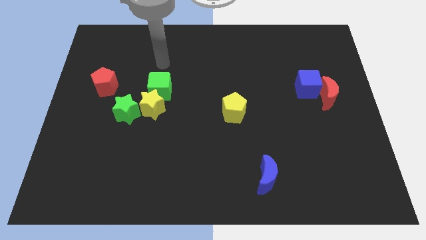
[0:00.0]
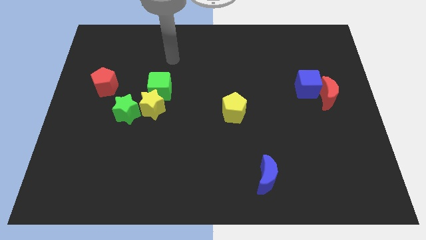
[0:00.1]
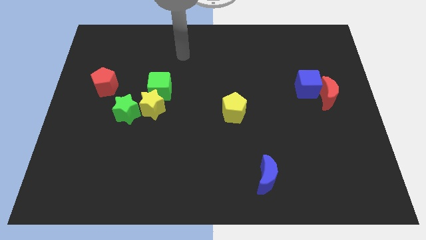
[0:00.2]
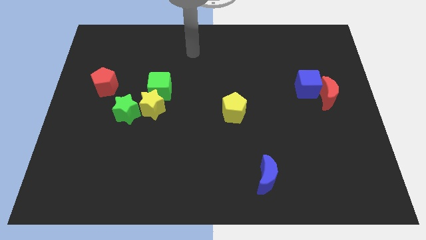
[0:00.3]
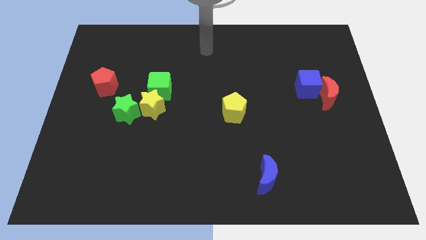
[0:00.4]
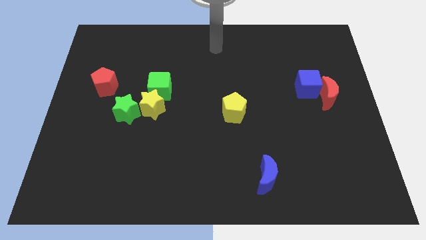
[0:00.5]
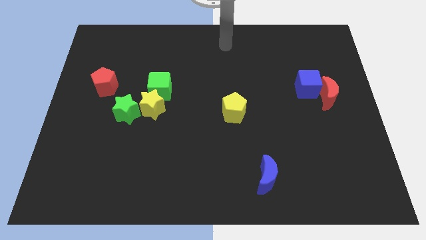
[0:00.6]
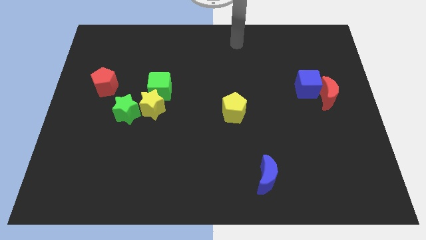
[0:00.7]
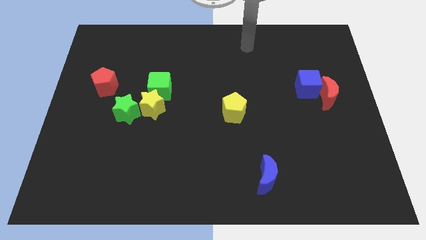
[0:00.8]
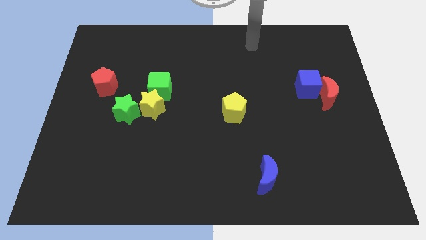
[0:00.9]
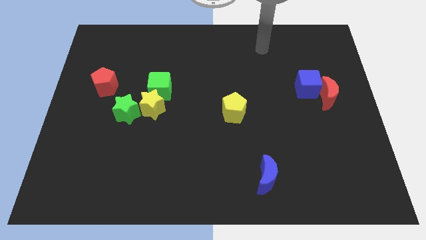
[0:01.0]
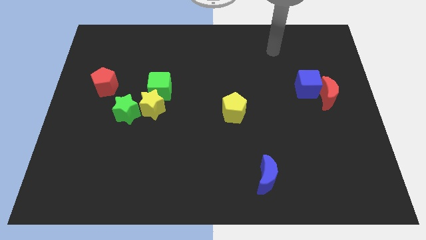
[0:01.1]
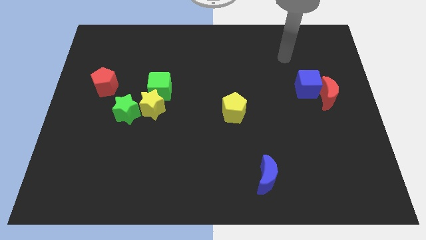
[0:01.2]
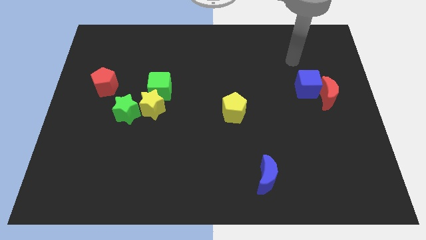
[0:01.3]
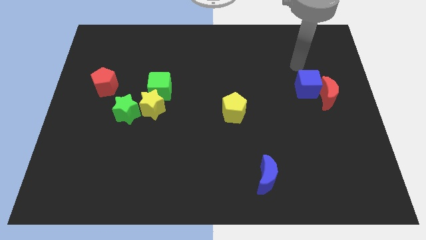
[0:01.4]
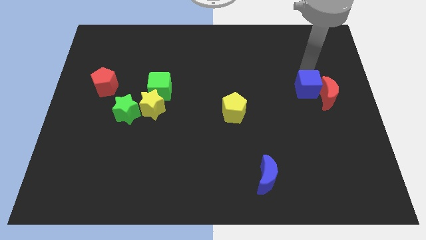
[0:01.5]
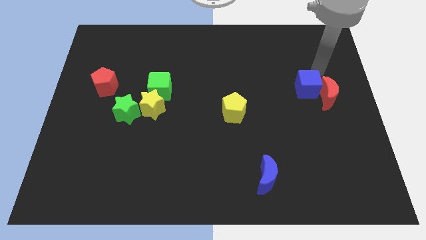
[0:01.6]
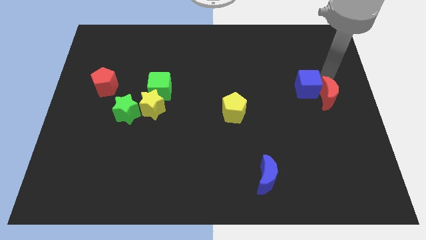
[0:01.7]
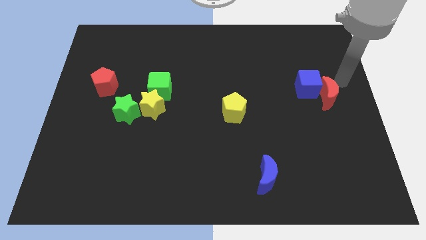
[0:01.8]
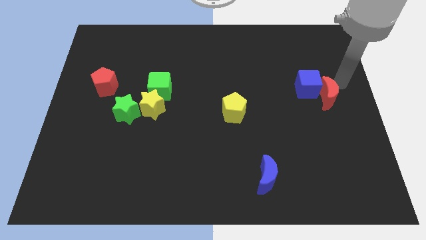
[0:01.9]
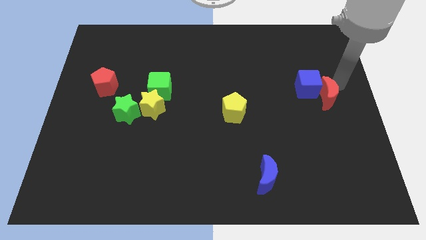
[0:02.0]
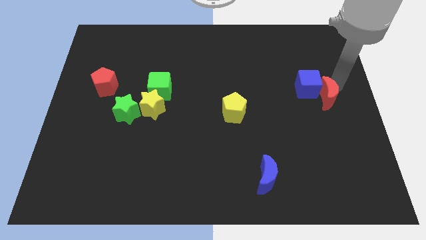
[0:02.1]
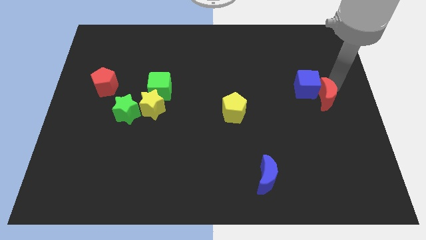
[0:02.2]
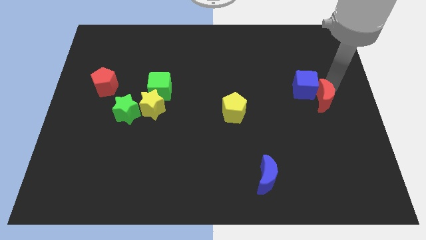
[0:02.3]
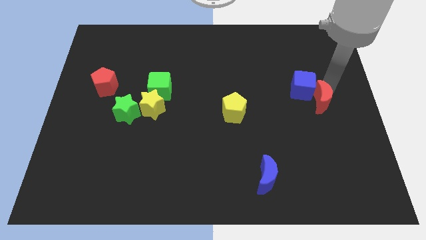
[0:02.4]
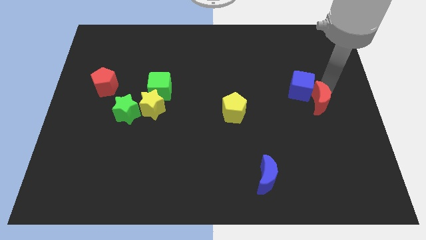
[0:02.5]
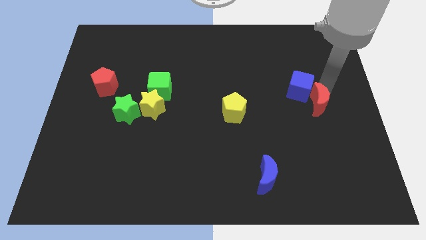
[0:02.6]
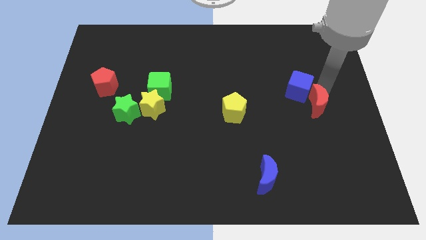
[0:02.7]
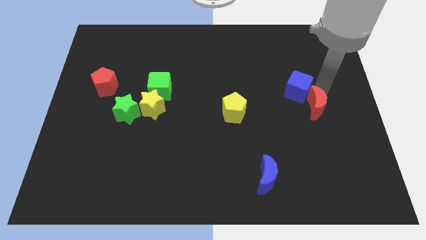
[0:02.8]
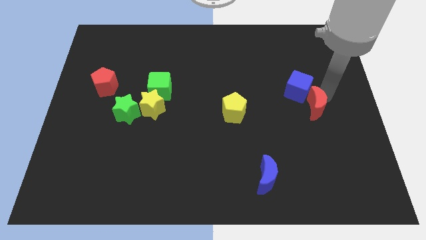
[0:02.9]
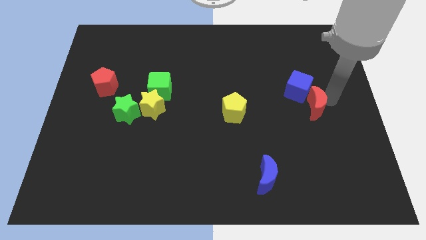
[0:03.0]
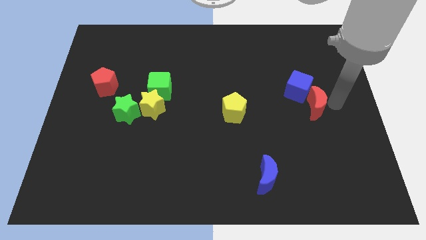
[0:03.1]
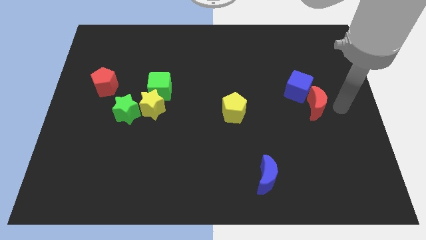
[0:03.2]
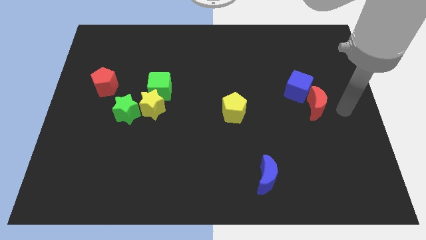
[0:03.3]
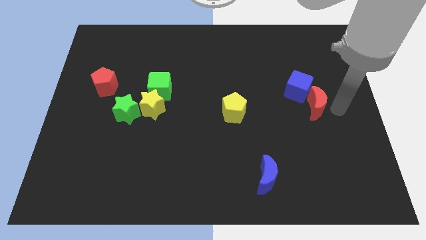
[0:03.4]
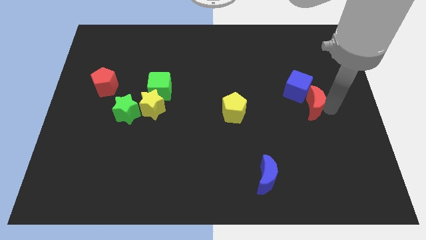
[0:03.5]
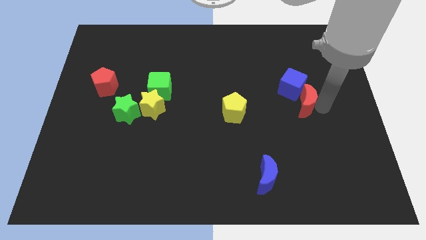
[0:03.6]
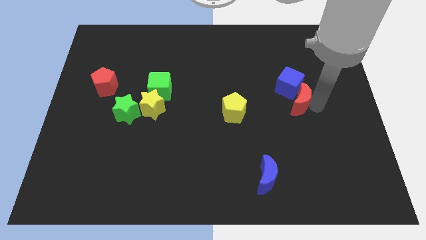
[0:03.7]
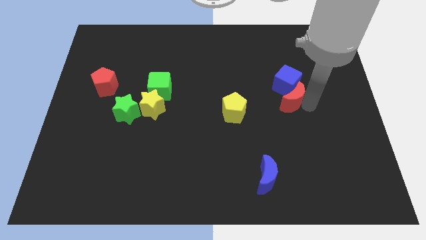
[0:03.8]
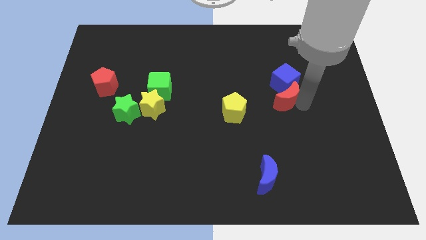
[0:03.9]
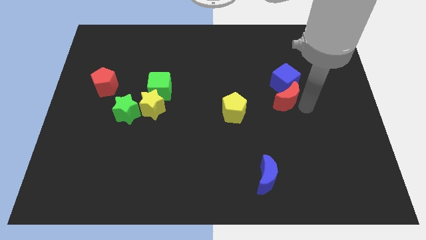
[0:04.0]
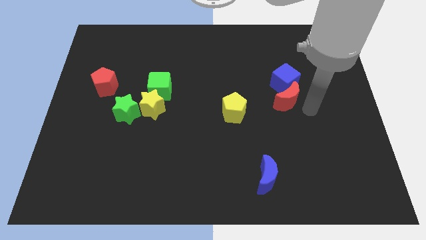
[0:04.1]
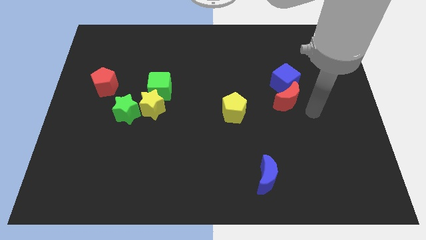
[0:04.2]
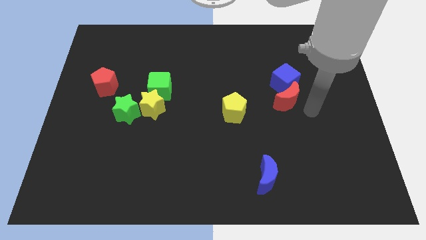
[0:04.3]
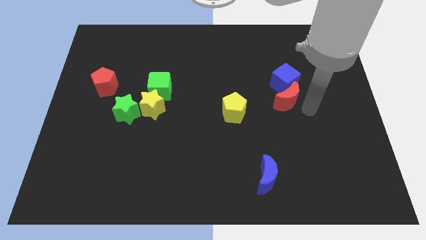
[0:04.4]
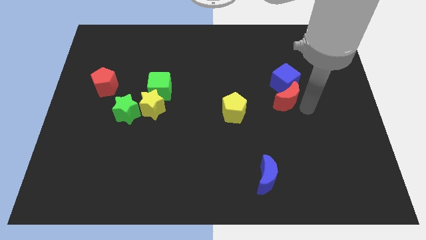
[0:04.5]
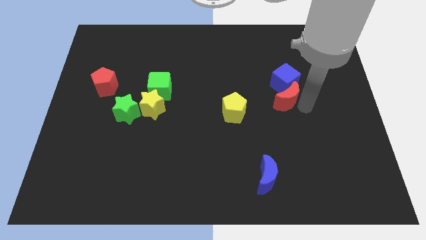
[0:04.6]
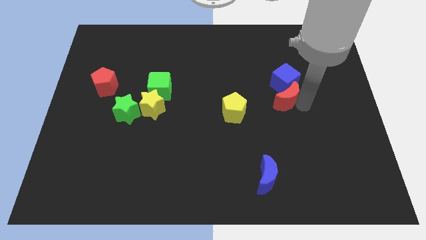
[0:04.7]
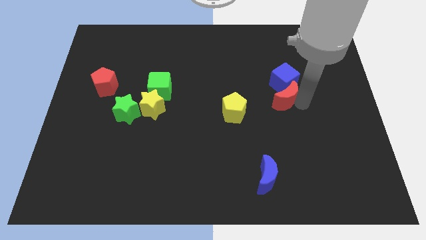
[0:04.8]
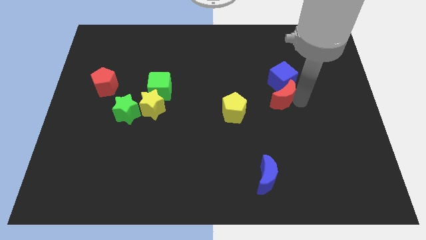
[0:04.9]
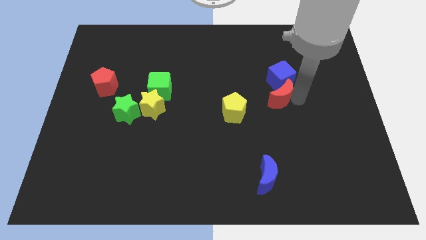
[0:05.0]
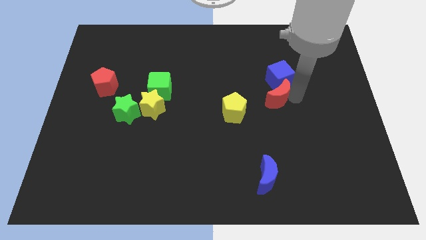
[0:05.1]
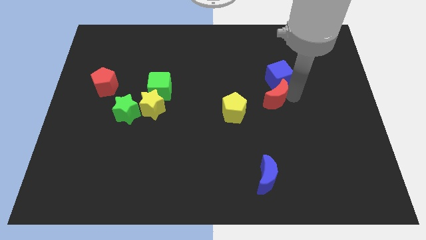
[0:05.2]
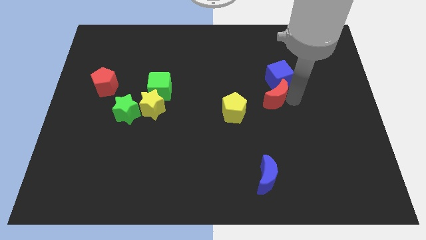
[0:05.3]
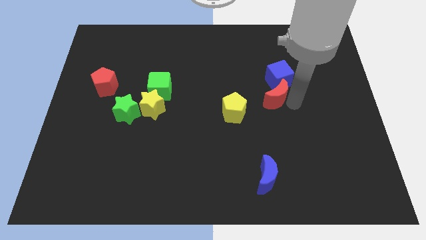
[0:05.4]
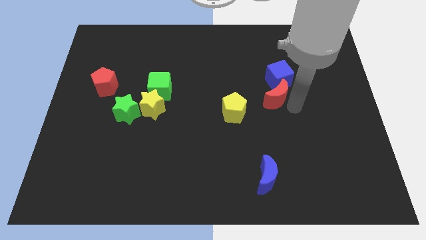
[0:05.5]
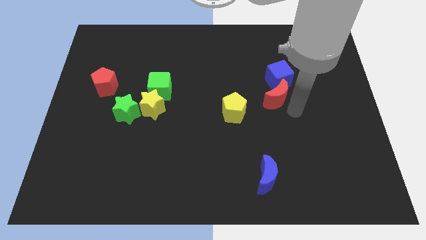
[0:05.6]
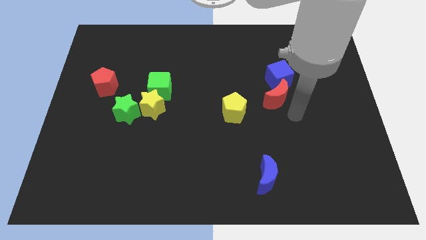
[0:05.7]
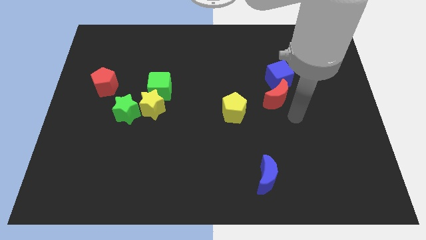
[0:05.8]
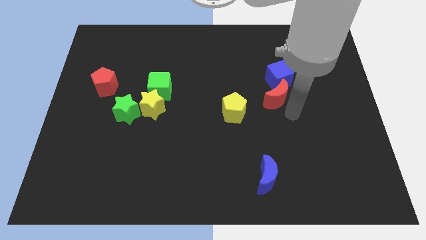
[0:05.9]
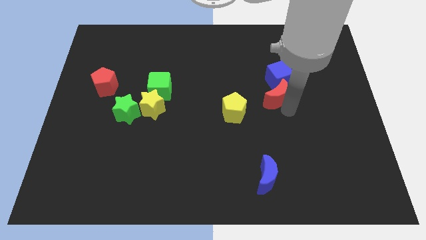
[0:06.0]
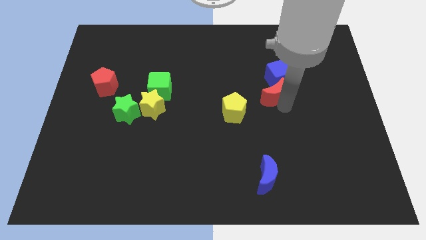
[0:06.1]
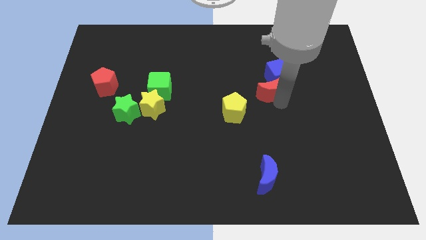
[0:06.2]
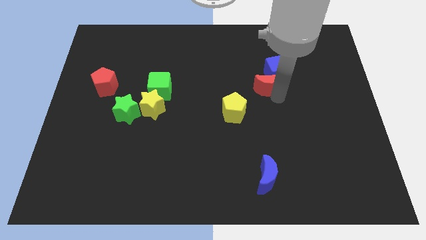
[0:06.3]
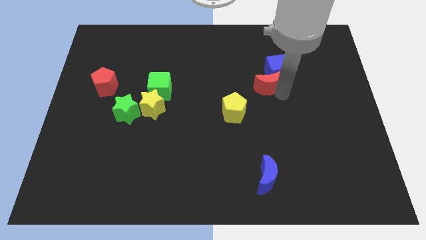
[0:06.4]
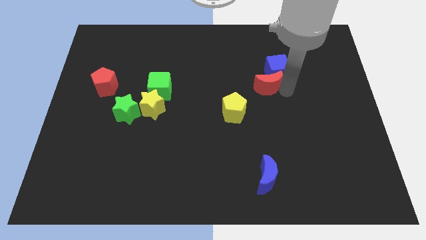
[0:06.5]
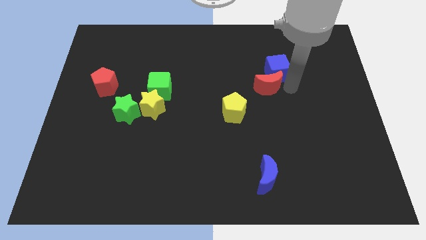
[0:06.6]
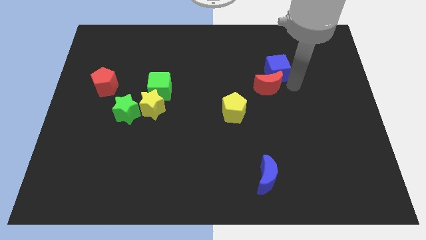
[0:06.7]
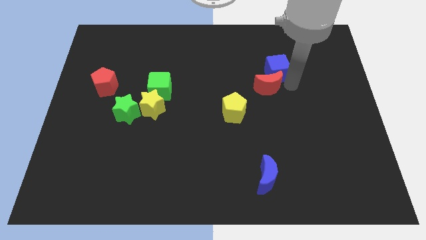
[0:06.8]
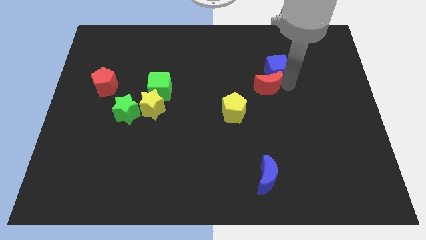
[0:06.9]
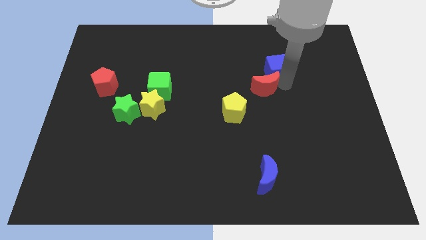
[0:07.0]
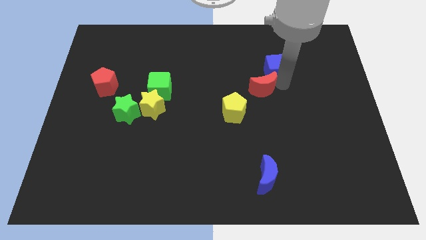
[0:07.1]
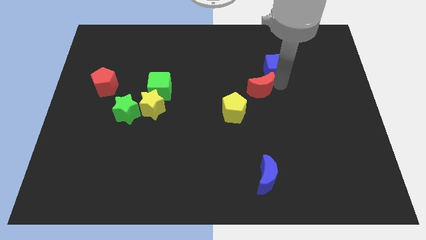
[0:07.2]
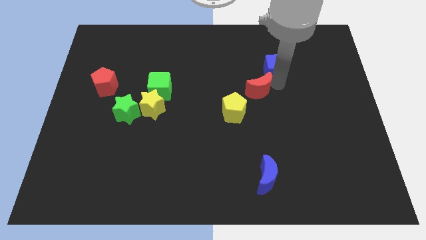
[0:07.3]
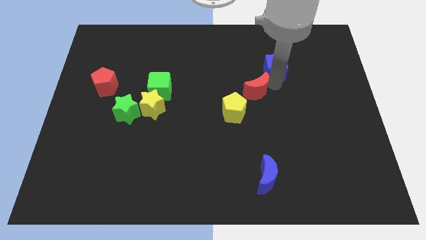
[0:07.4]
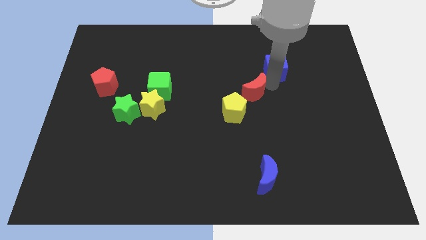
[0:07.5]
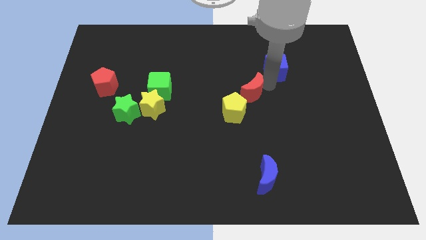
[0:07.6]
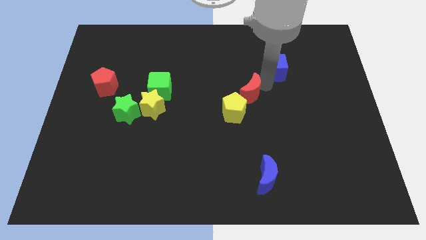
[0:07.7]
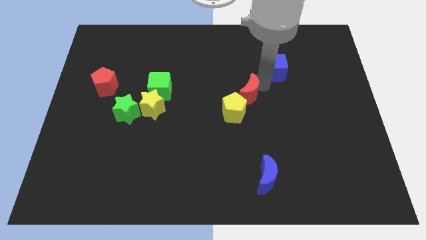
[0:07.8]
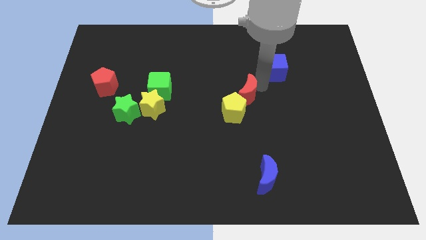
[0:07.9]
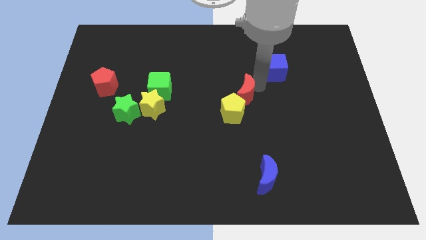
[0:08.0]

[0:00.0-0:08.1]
slide the red moon left

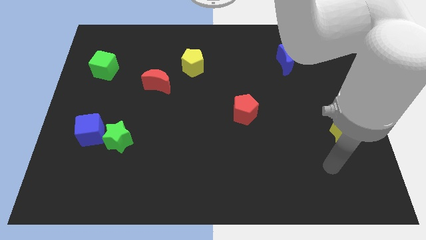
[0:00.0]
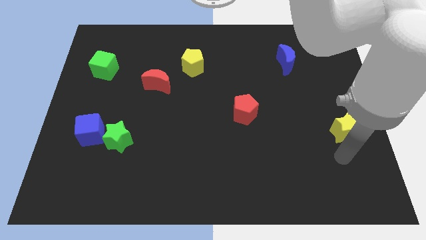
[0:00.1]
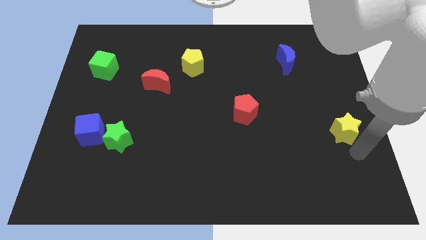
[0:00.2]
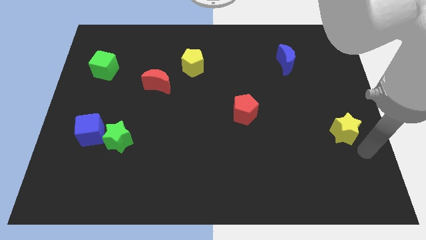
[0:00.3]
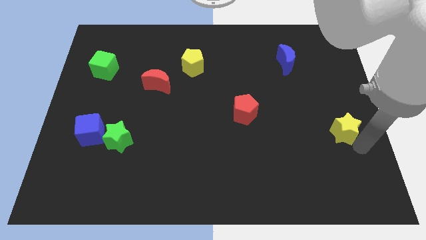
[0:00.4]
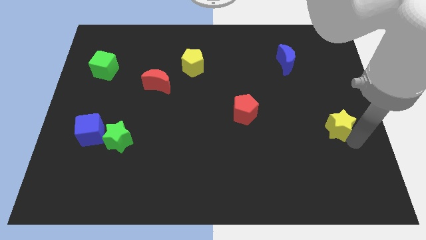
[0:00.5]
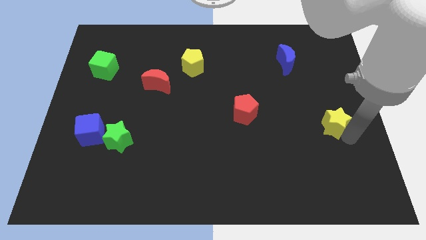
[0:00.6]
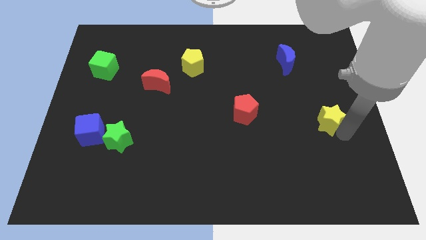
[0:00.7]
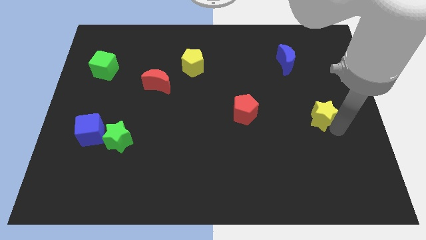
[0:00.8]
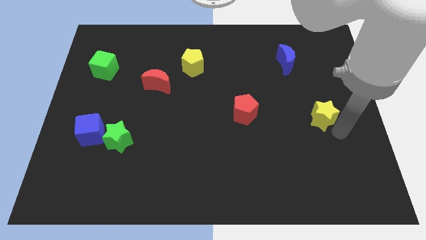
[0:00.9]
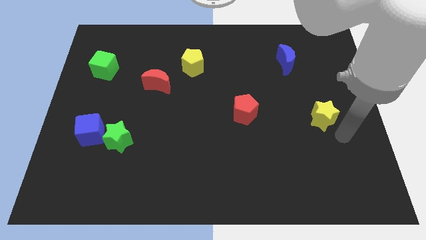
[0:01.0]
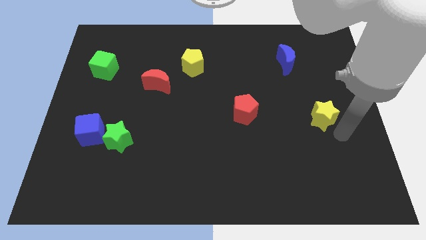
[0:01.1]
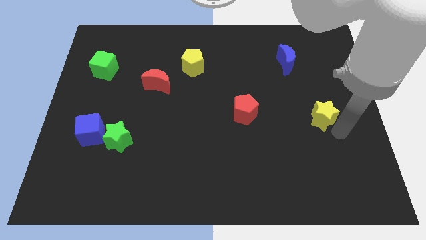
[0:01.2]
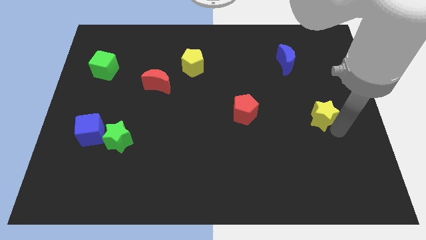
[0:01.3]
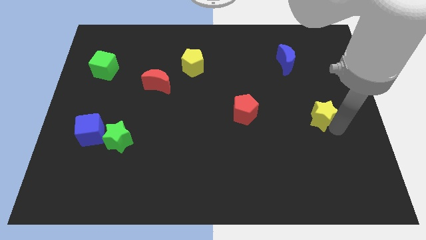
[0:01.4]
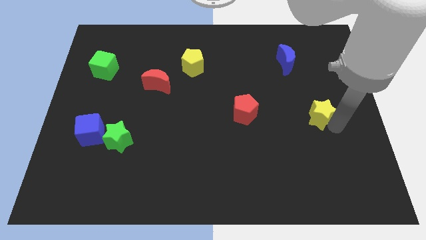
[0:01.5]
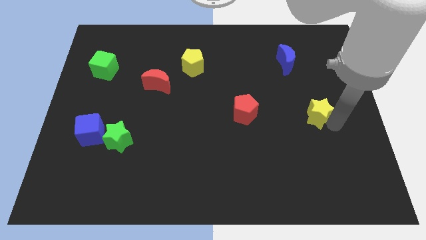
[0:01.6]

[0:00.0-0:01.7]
push the yellow star diagonally upwards and to the left a little
